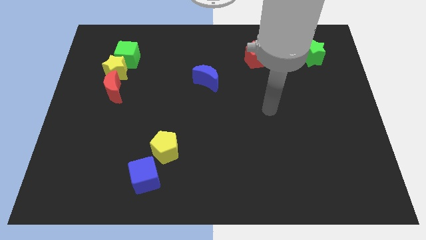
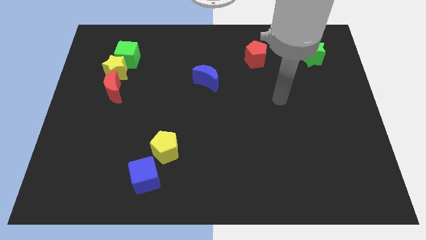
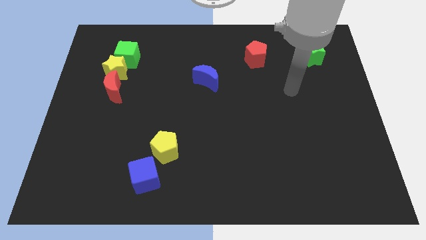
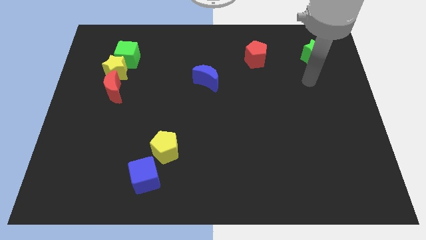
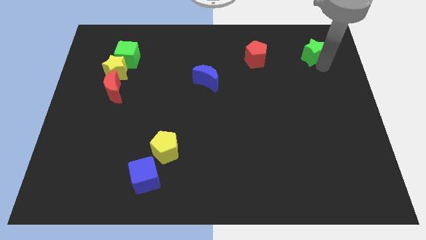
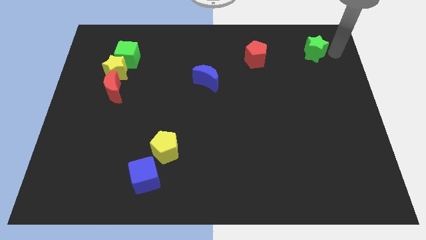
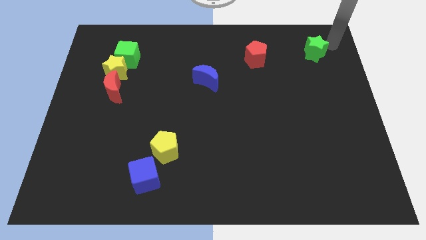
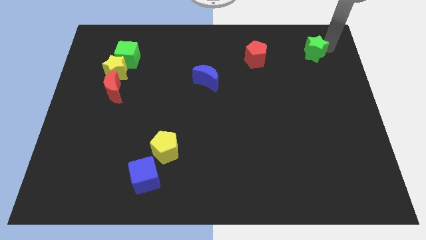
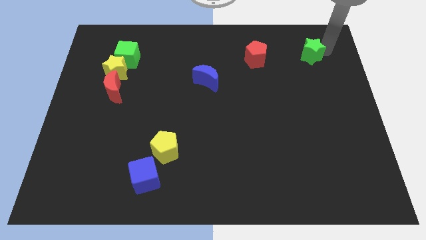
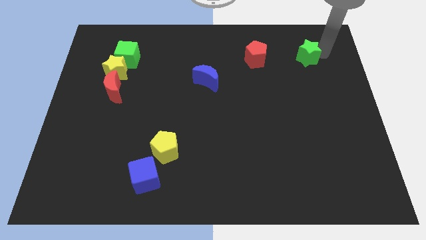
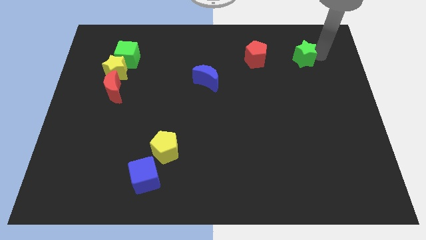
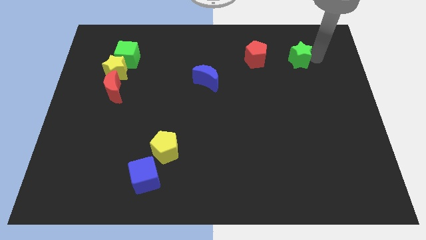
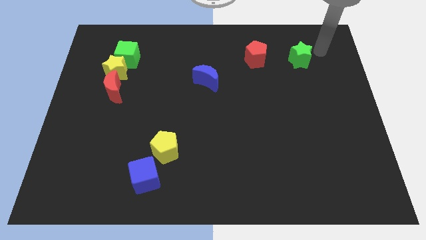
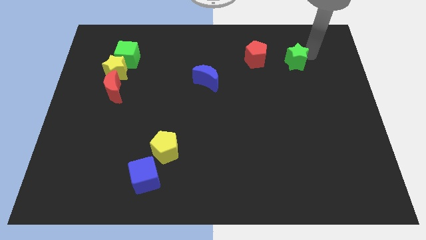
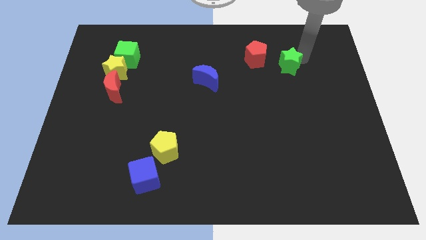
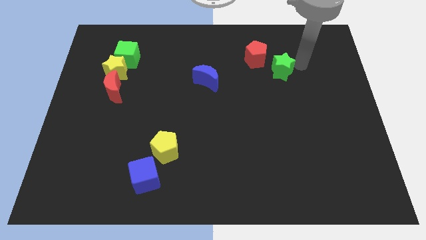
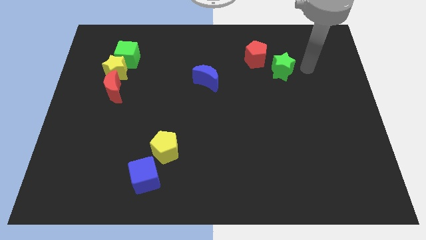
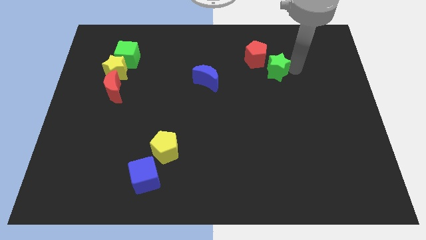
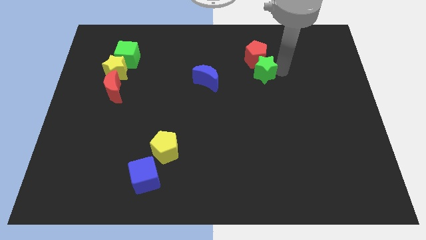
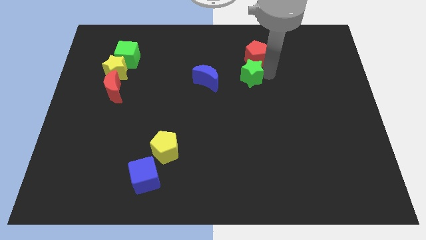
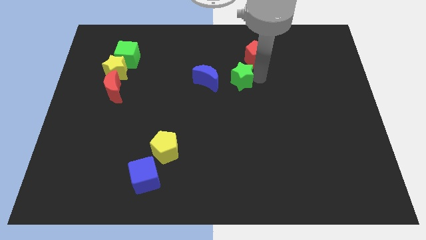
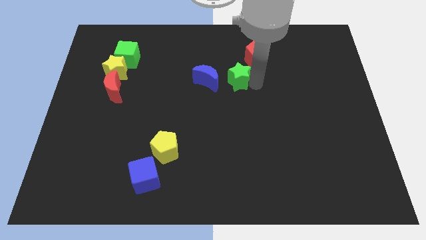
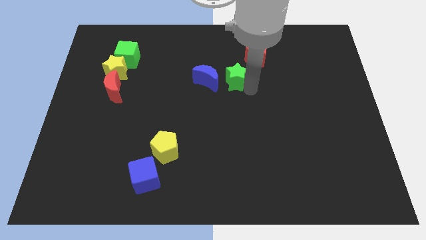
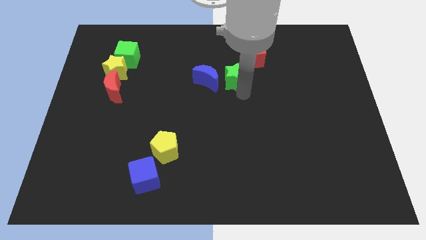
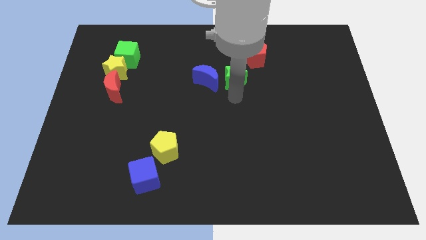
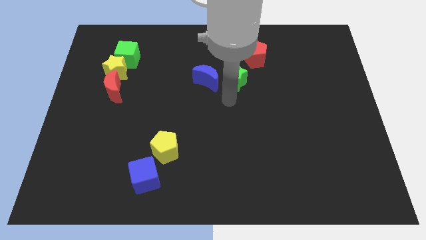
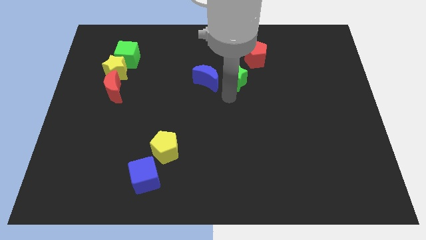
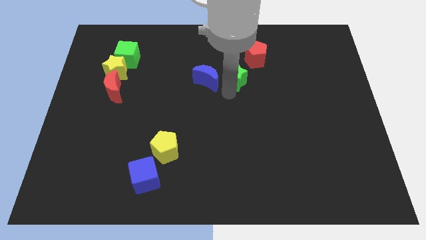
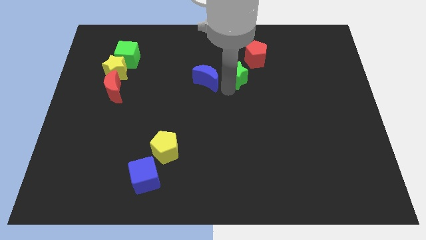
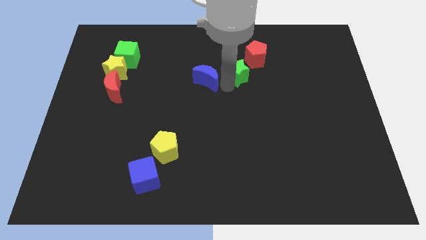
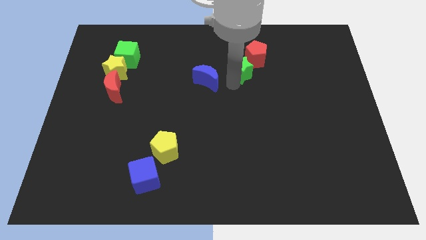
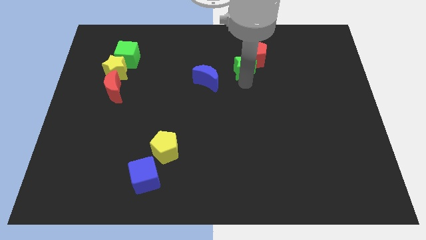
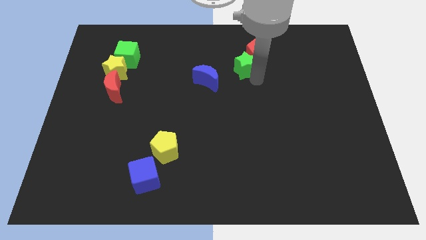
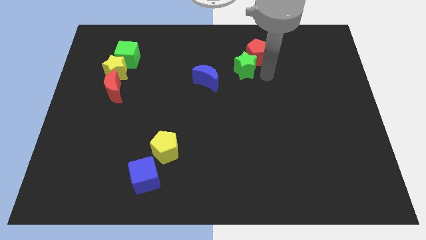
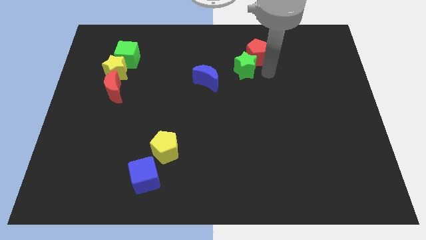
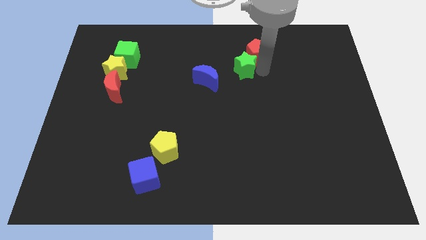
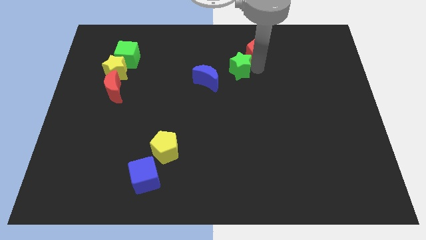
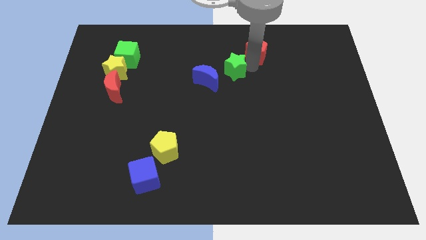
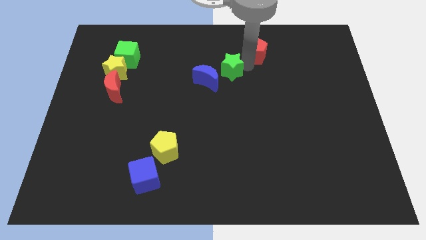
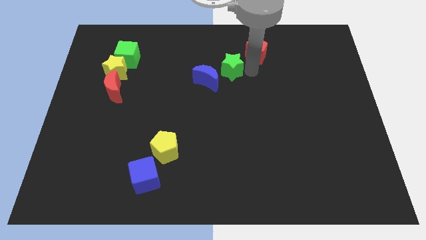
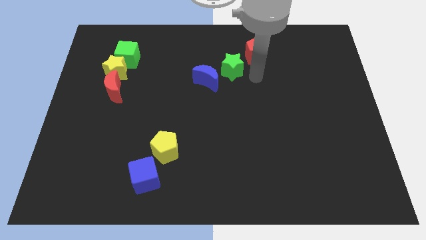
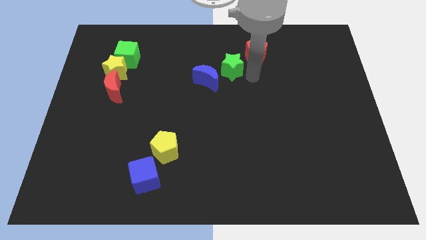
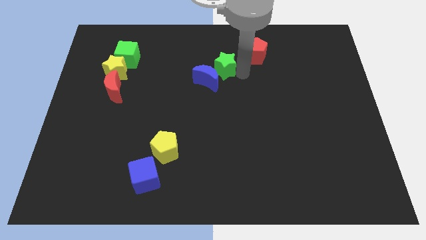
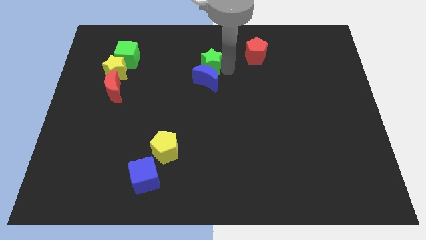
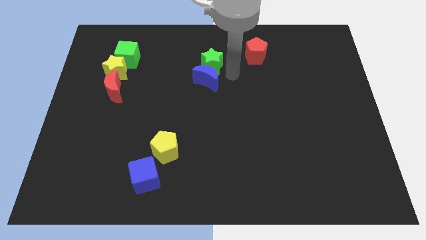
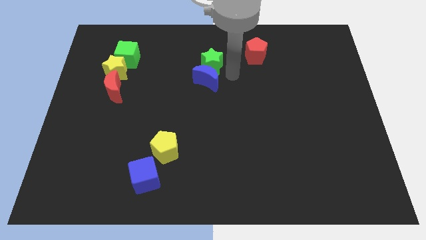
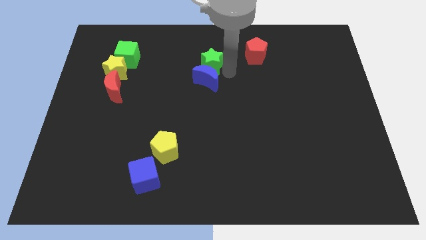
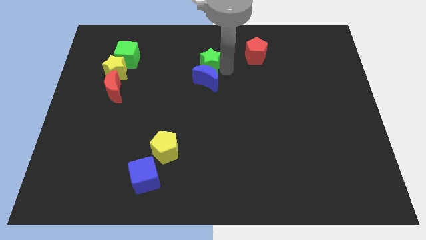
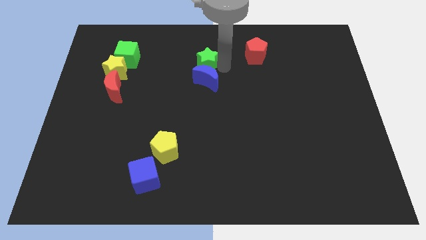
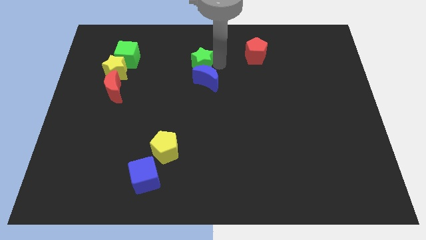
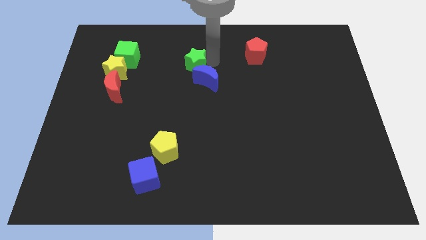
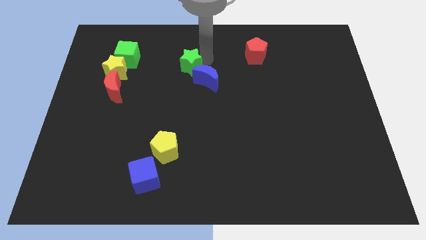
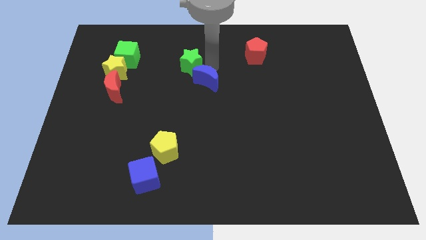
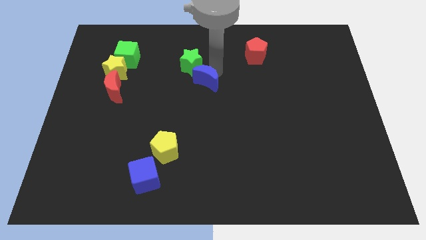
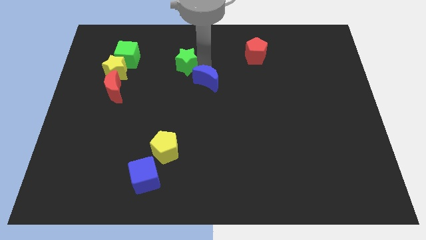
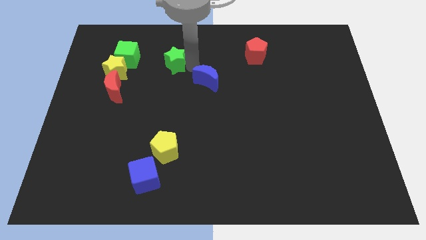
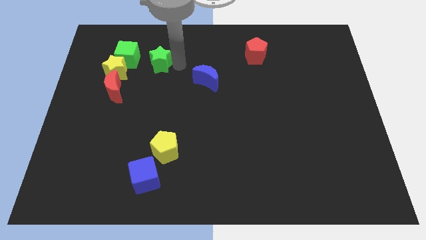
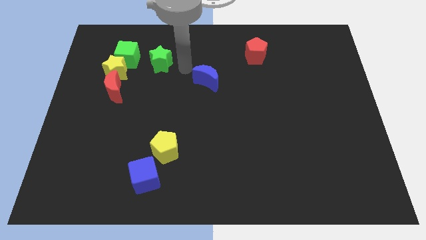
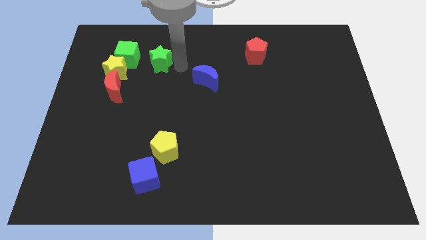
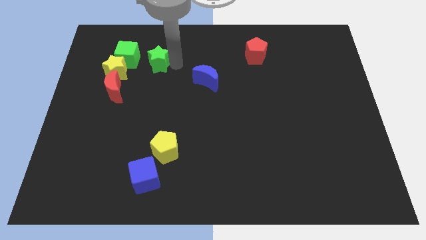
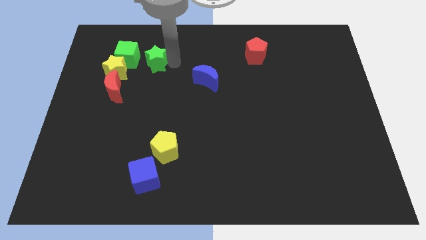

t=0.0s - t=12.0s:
slide the green star to the top right of the yellow star

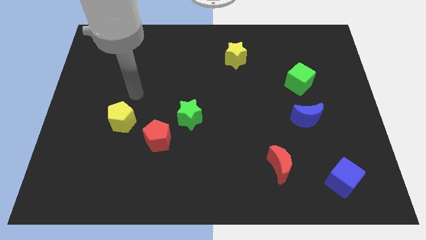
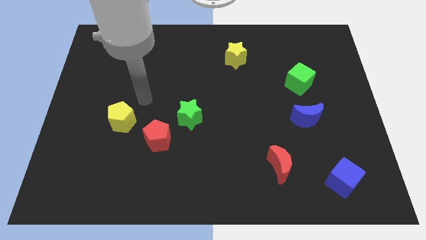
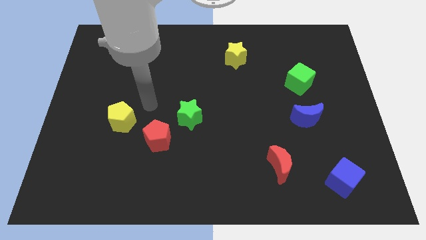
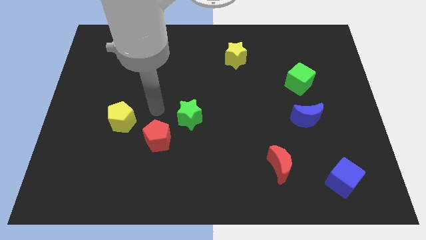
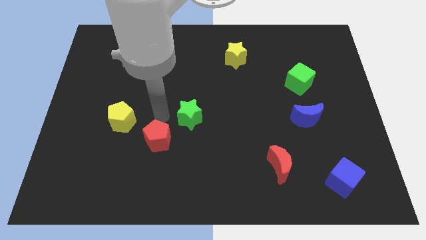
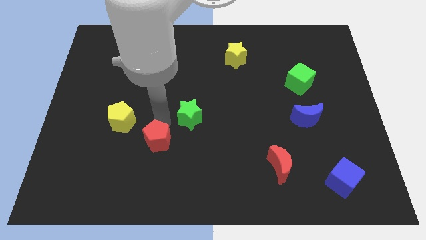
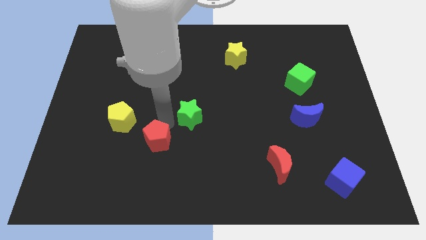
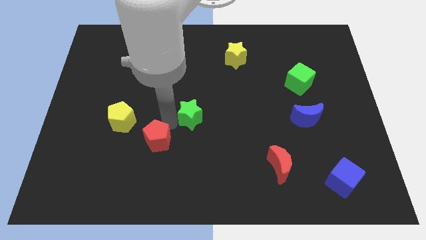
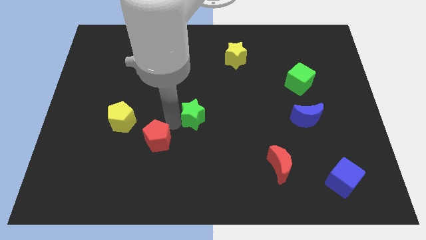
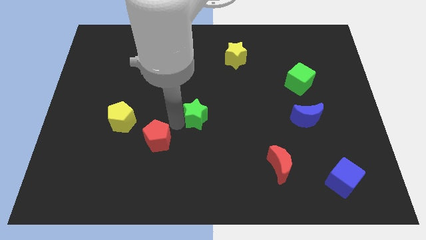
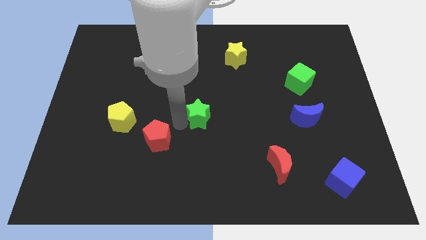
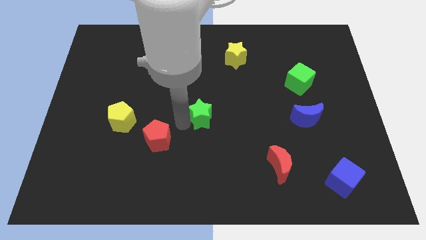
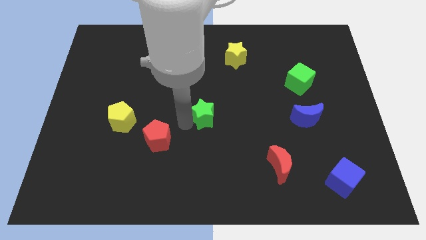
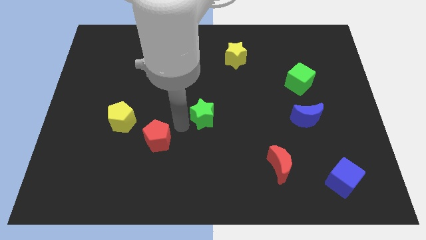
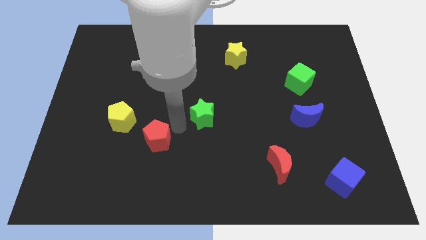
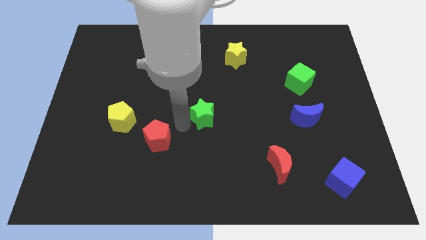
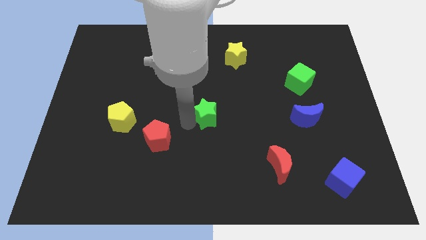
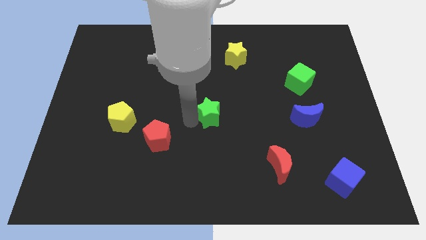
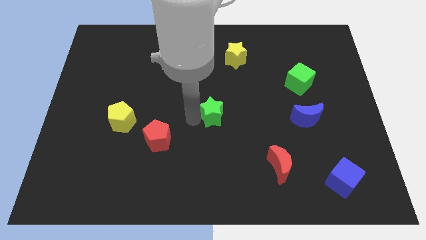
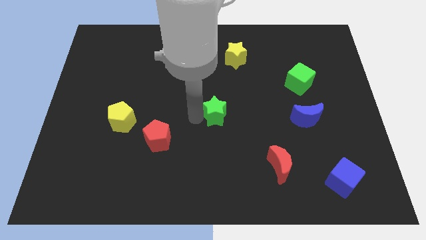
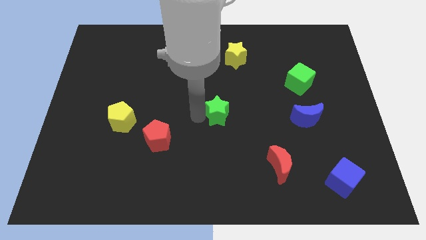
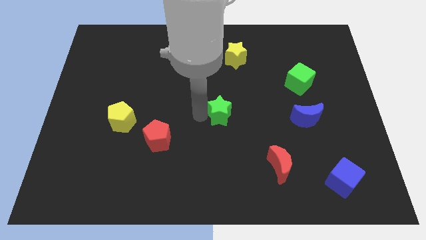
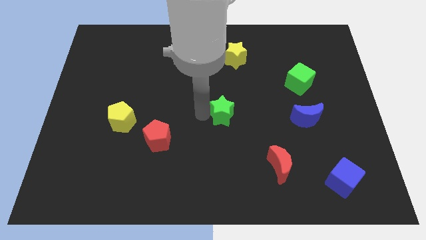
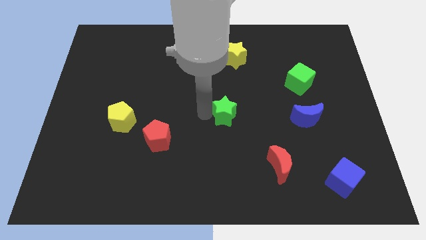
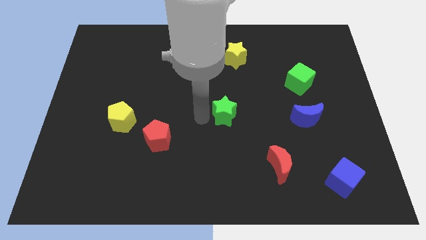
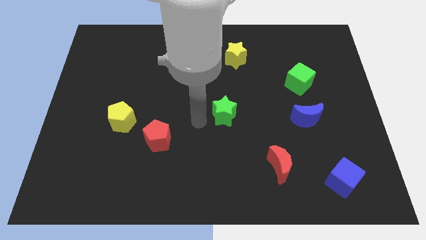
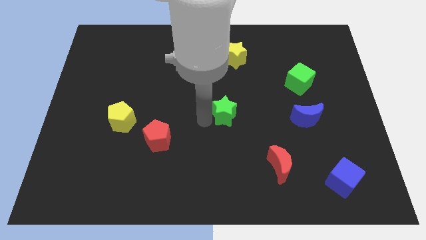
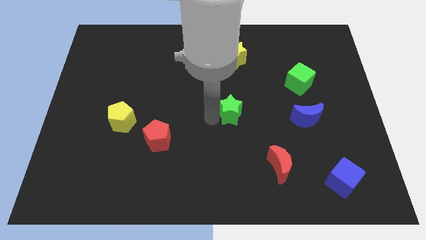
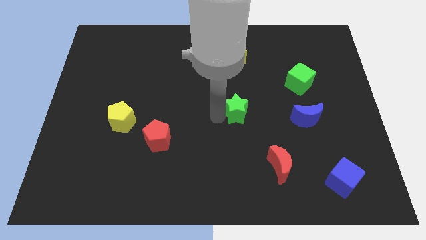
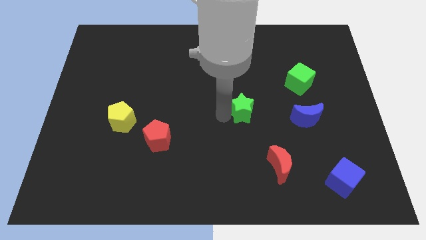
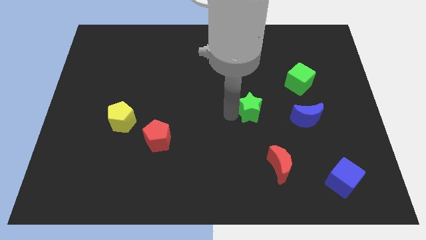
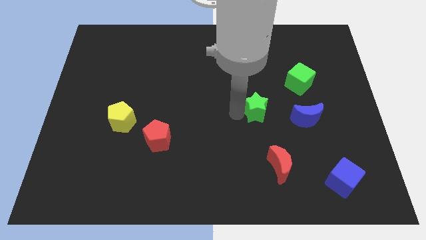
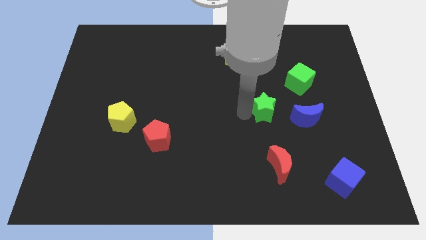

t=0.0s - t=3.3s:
push the green star to the bottom left of the green cube
